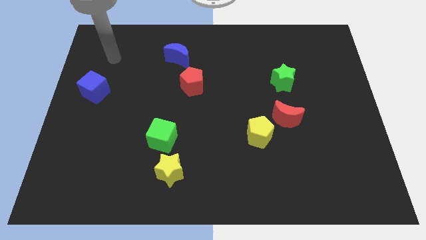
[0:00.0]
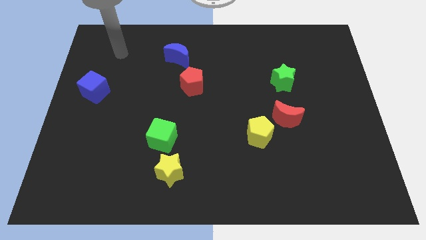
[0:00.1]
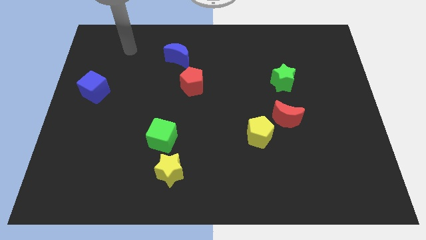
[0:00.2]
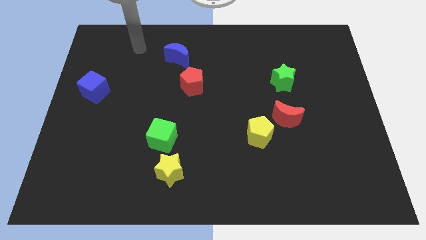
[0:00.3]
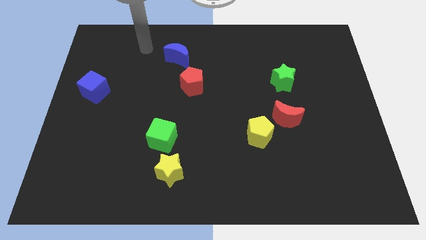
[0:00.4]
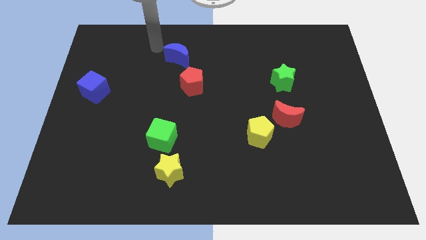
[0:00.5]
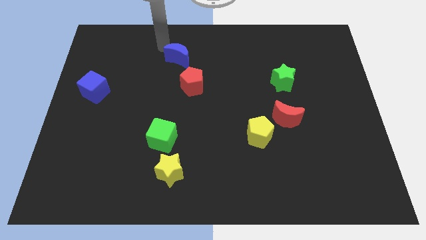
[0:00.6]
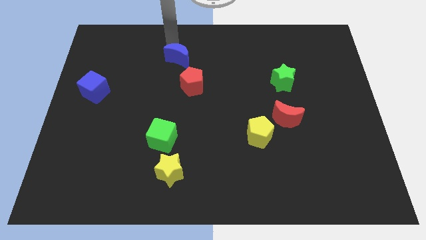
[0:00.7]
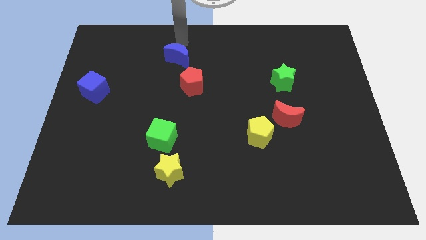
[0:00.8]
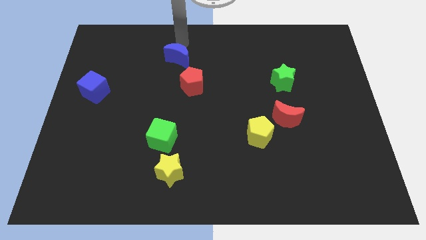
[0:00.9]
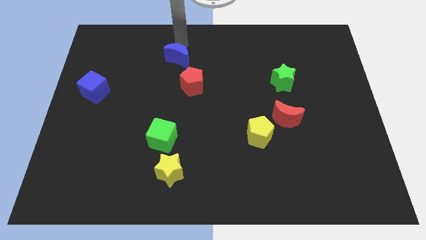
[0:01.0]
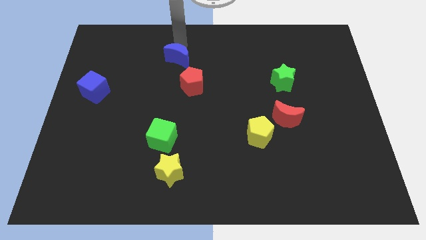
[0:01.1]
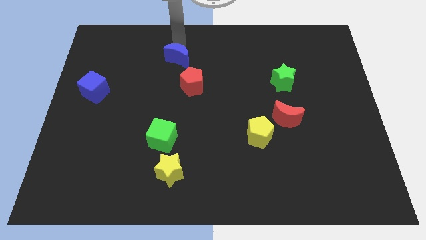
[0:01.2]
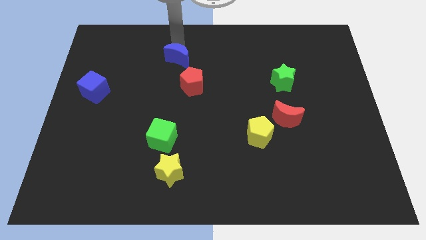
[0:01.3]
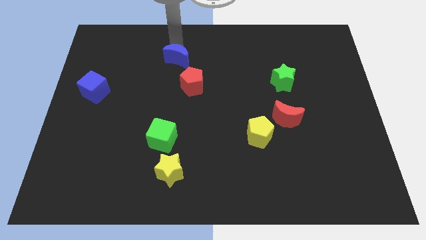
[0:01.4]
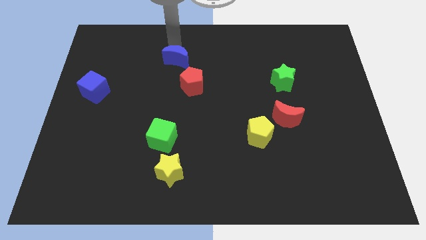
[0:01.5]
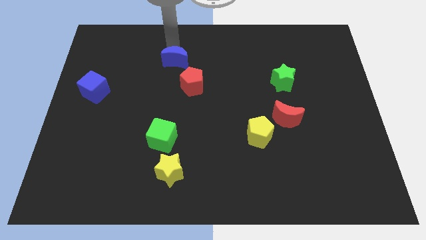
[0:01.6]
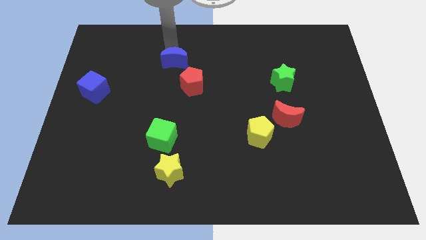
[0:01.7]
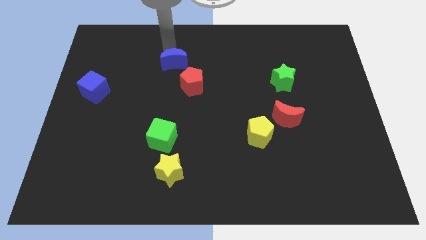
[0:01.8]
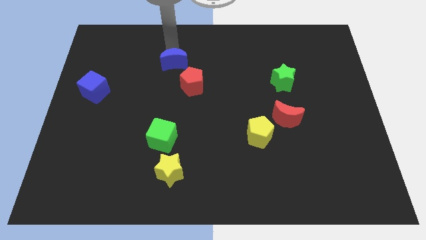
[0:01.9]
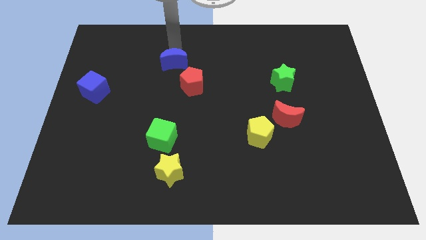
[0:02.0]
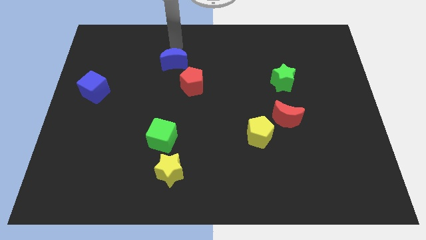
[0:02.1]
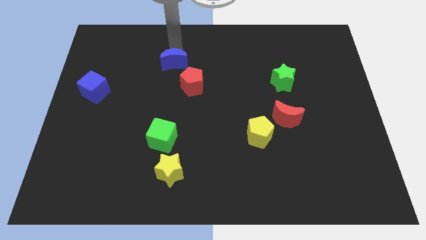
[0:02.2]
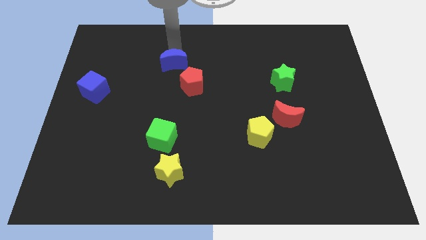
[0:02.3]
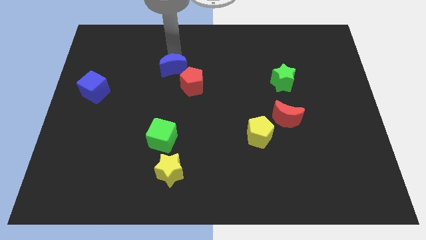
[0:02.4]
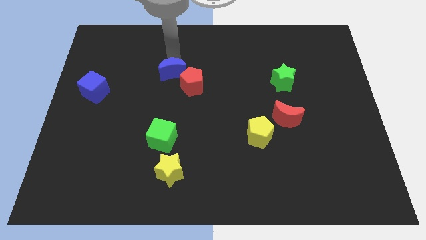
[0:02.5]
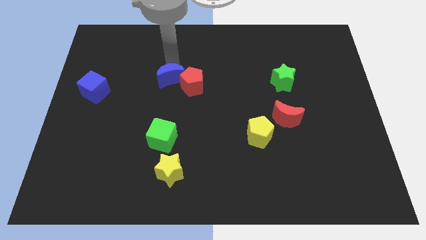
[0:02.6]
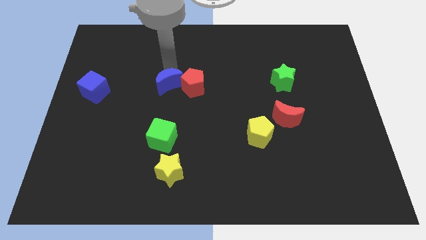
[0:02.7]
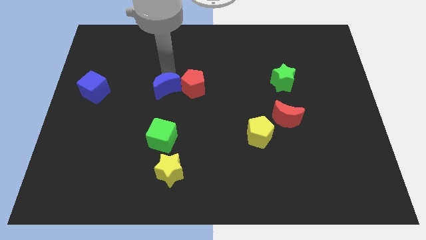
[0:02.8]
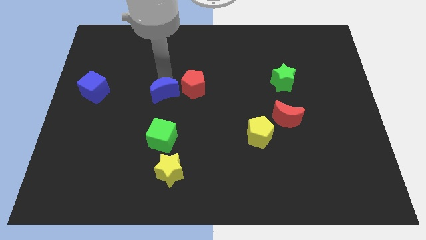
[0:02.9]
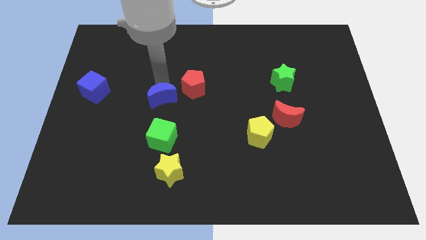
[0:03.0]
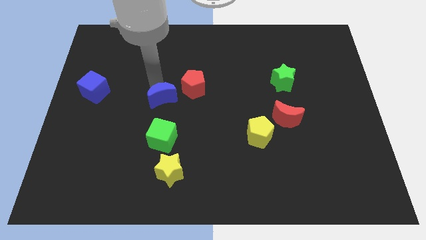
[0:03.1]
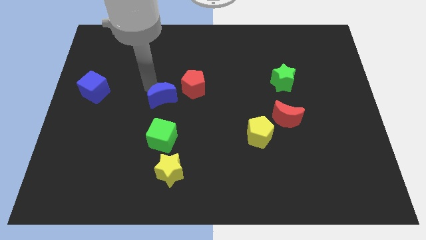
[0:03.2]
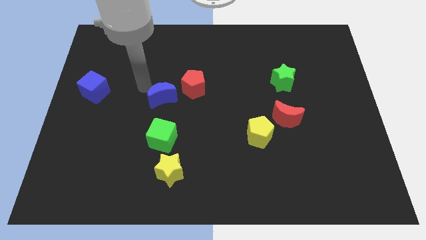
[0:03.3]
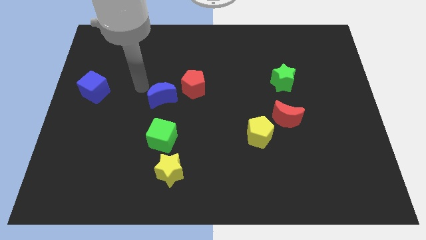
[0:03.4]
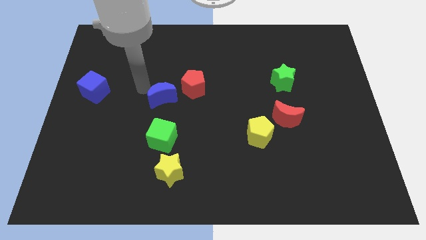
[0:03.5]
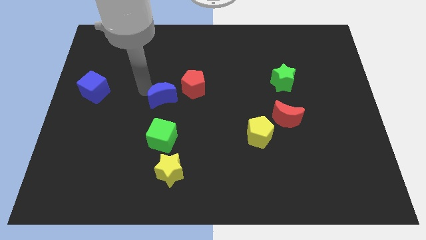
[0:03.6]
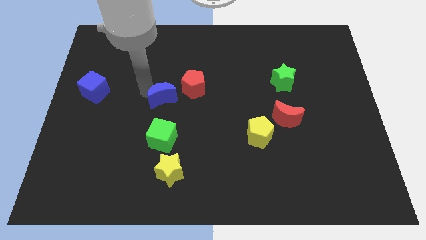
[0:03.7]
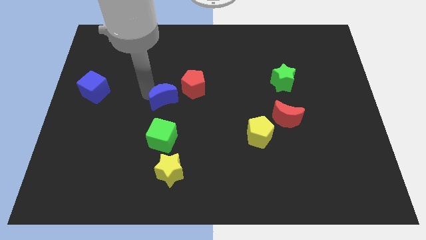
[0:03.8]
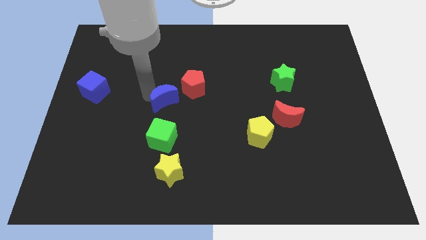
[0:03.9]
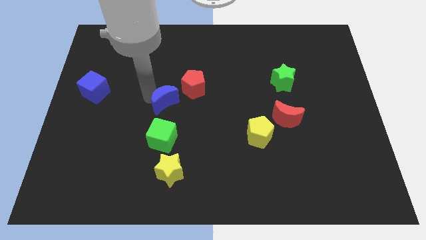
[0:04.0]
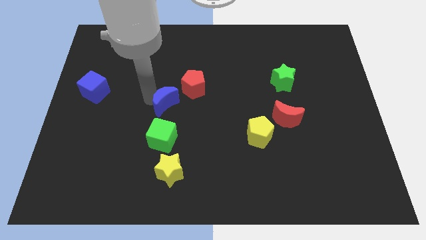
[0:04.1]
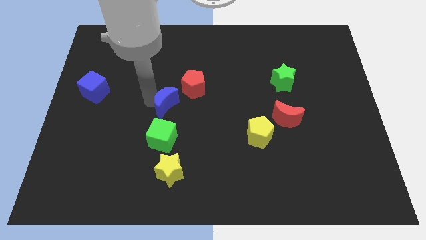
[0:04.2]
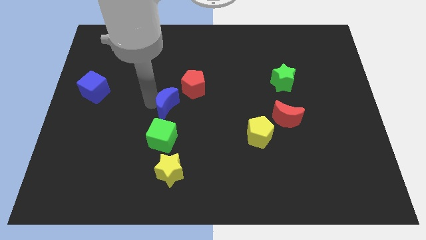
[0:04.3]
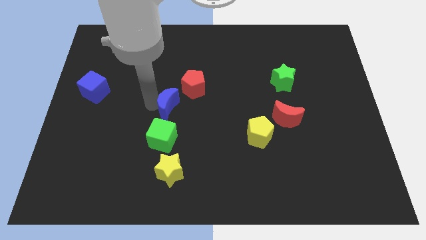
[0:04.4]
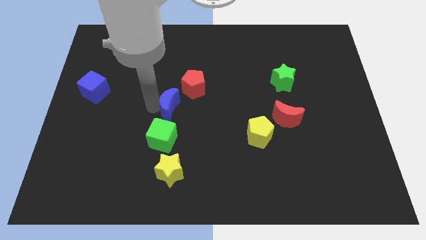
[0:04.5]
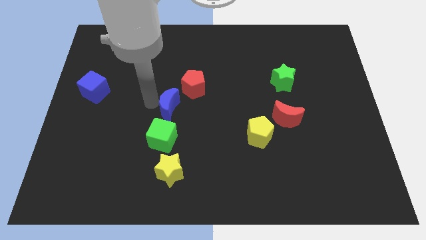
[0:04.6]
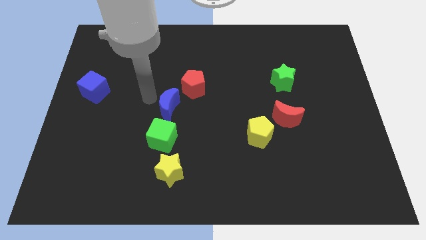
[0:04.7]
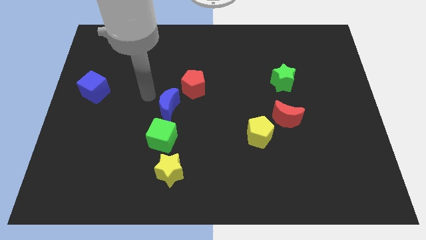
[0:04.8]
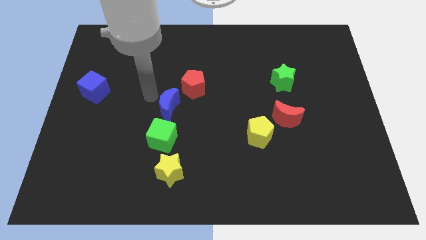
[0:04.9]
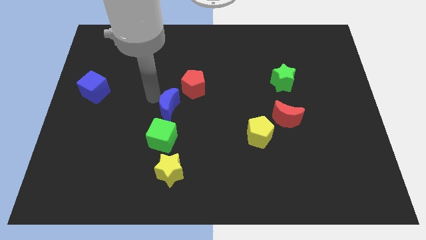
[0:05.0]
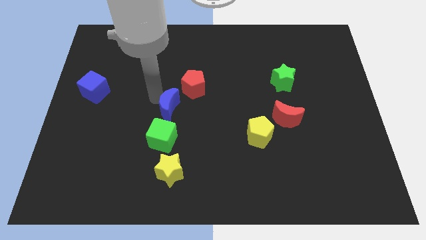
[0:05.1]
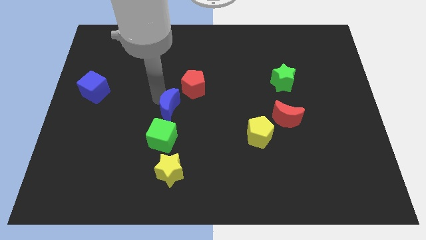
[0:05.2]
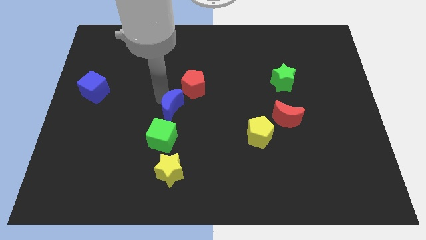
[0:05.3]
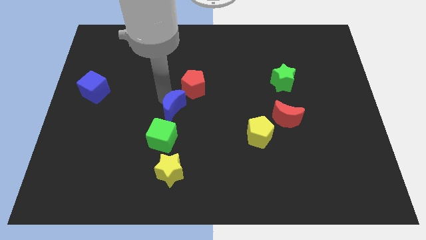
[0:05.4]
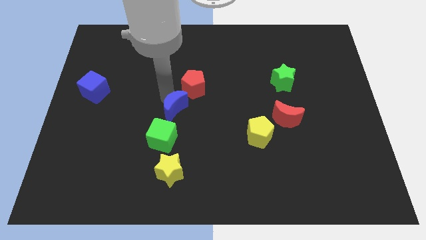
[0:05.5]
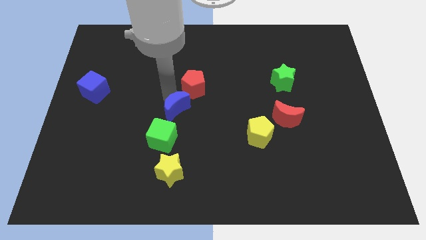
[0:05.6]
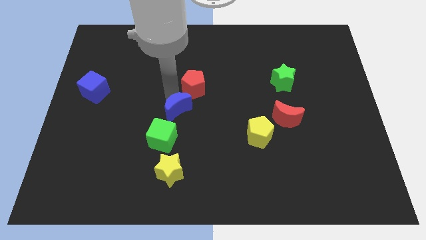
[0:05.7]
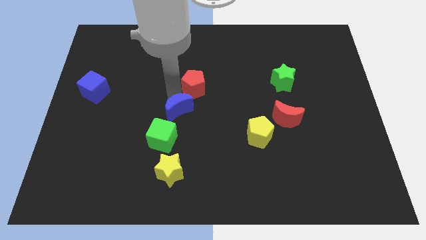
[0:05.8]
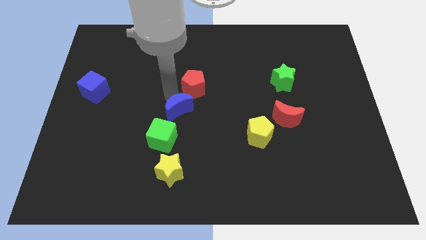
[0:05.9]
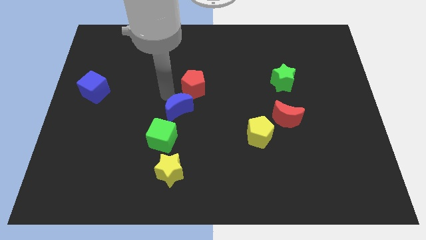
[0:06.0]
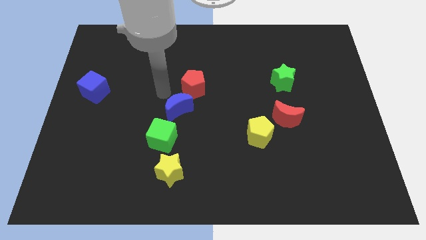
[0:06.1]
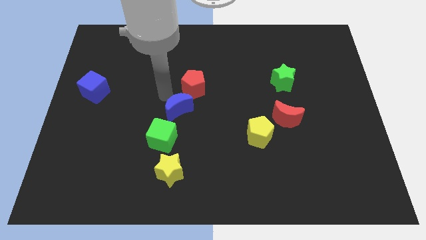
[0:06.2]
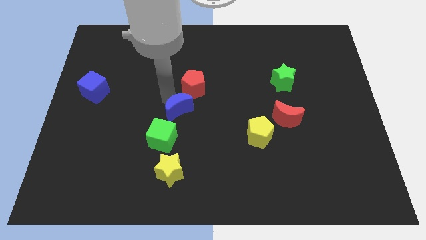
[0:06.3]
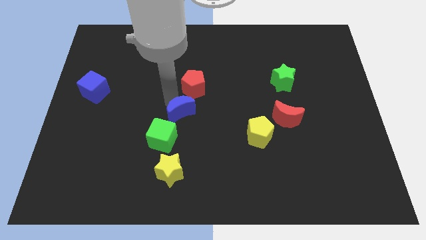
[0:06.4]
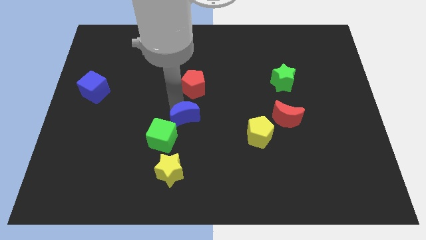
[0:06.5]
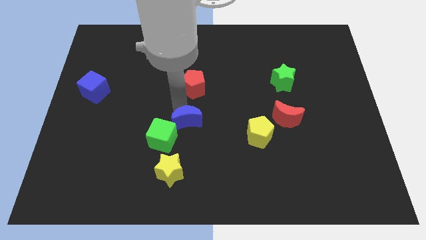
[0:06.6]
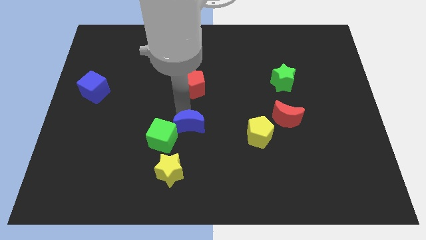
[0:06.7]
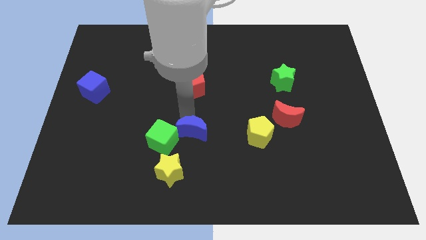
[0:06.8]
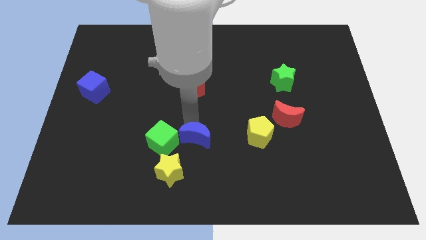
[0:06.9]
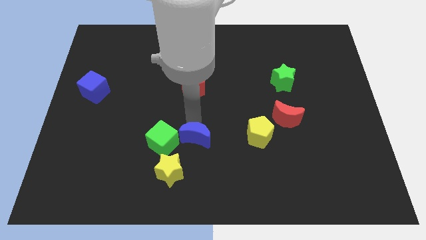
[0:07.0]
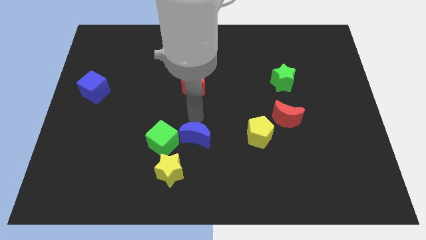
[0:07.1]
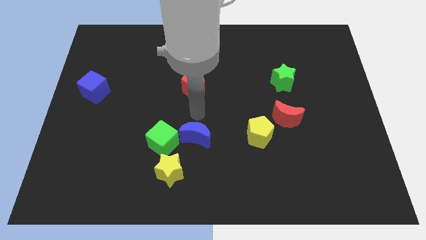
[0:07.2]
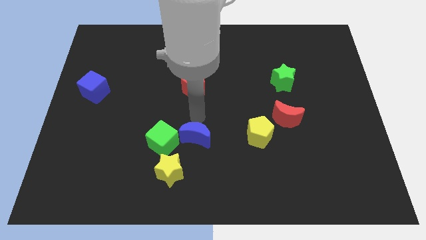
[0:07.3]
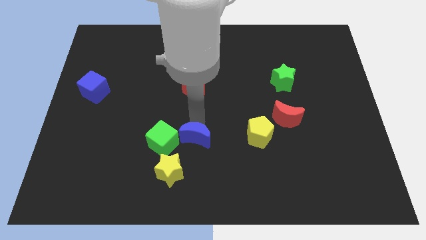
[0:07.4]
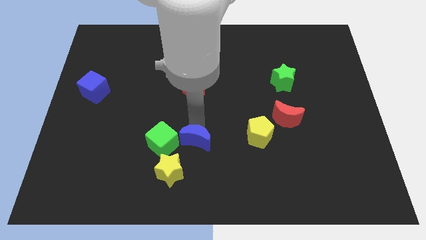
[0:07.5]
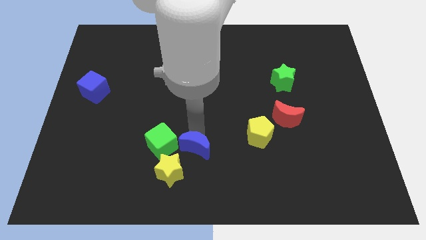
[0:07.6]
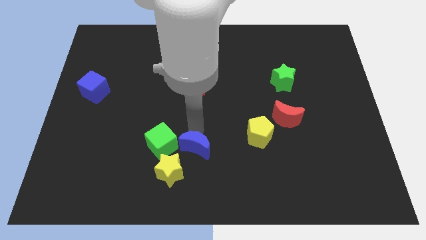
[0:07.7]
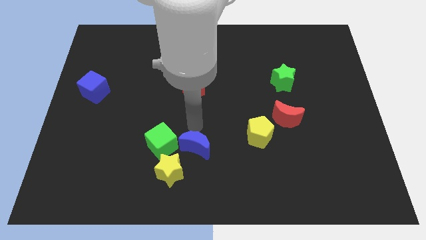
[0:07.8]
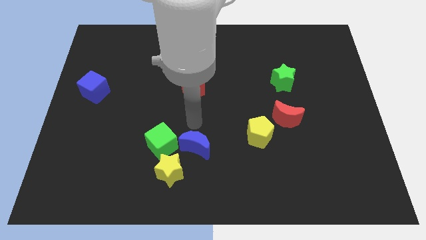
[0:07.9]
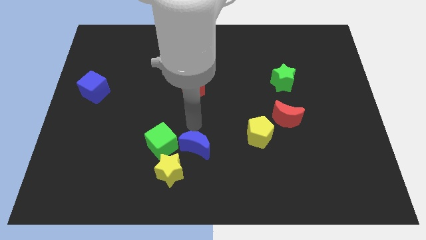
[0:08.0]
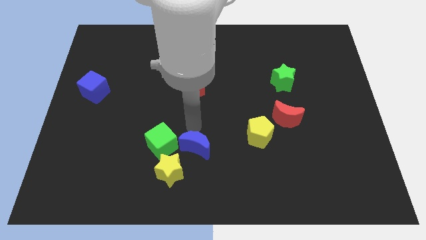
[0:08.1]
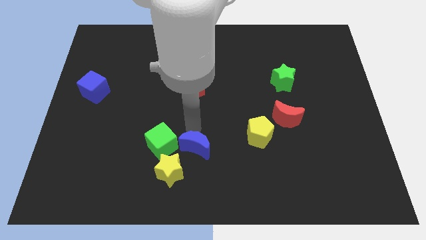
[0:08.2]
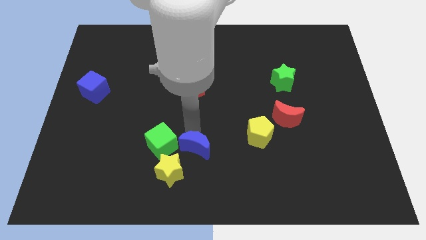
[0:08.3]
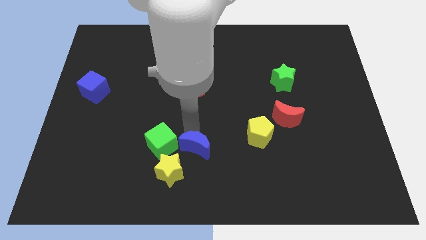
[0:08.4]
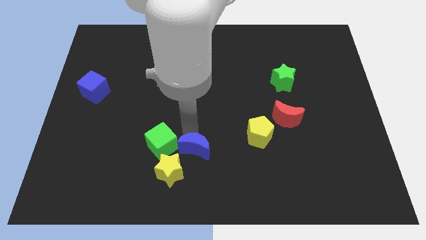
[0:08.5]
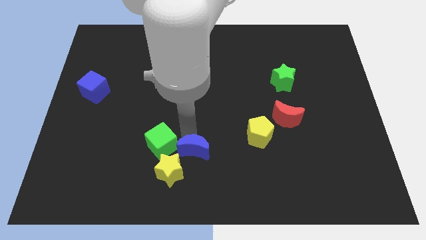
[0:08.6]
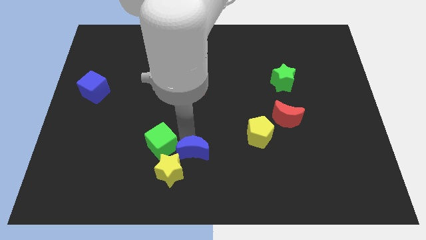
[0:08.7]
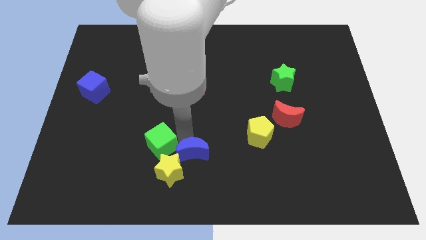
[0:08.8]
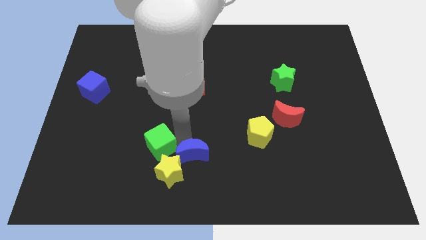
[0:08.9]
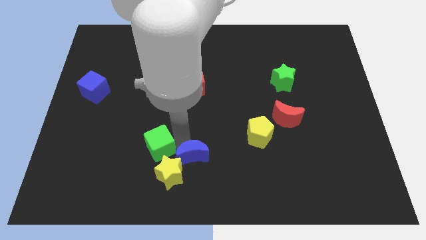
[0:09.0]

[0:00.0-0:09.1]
put the blue moon to the bottom side
